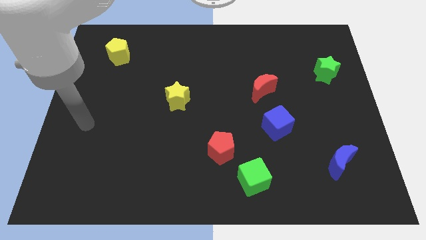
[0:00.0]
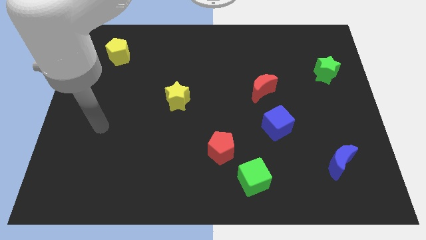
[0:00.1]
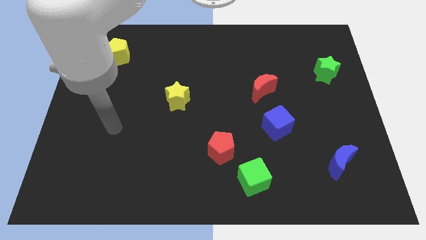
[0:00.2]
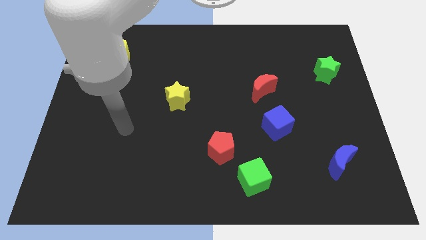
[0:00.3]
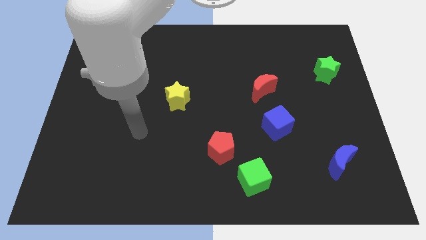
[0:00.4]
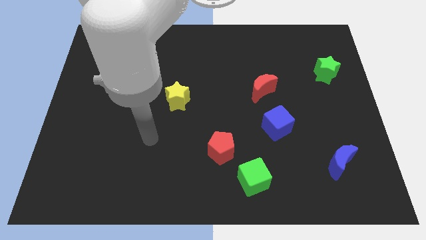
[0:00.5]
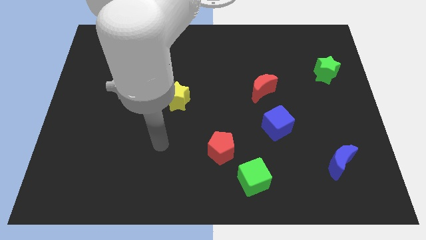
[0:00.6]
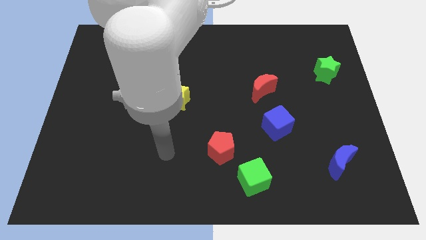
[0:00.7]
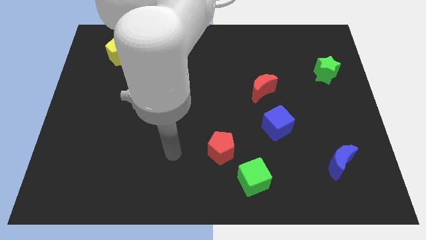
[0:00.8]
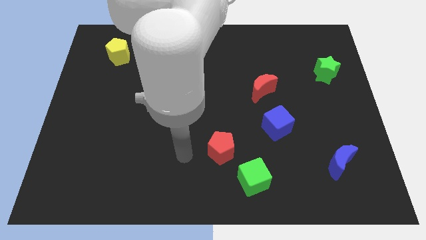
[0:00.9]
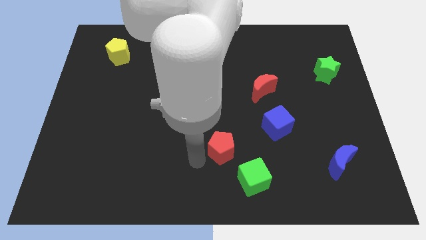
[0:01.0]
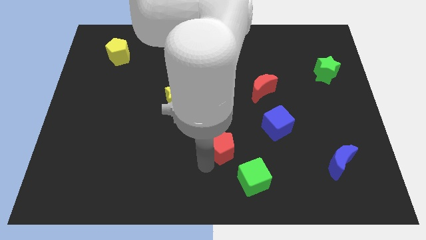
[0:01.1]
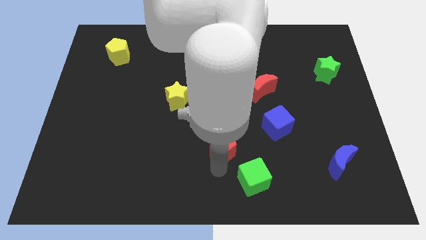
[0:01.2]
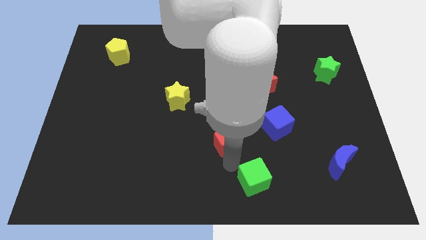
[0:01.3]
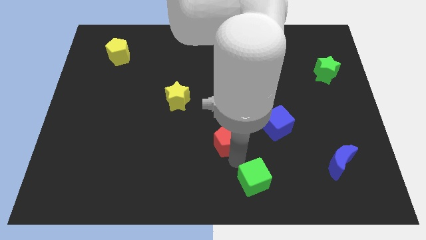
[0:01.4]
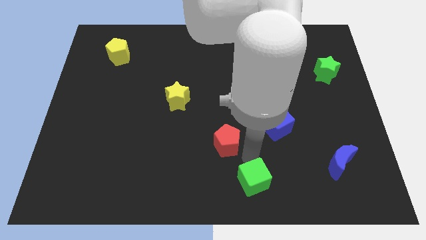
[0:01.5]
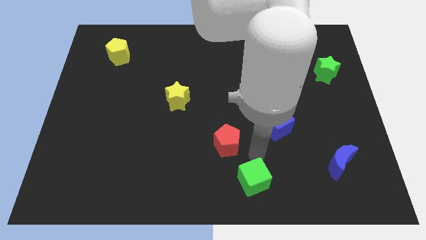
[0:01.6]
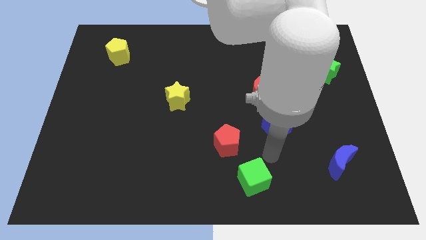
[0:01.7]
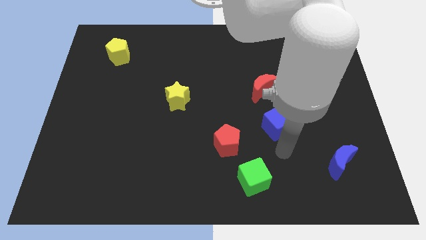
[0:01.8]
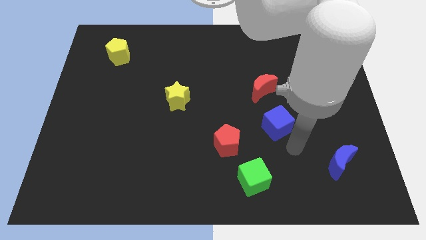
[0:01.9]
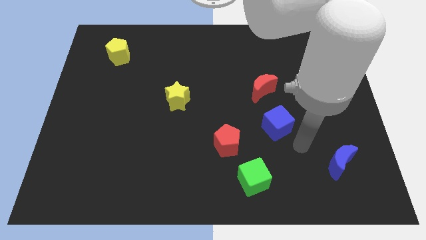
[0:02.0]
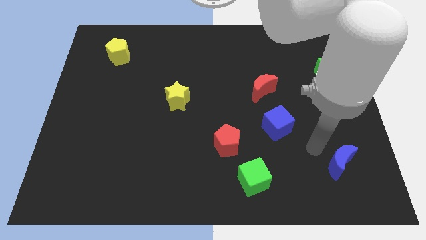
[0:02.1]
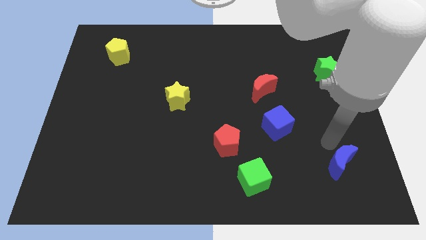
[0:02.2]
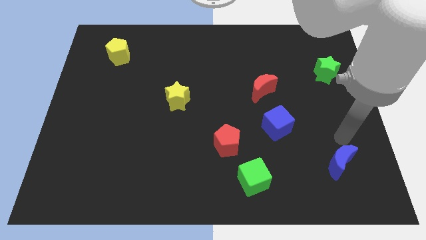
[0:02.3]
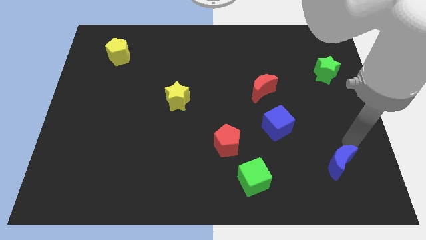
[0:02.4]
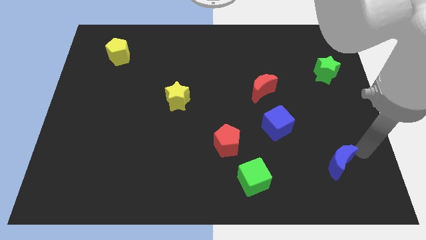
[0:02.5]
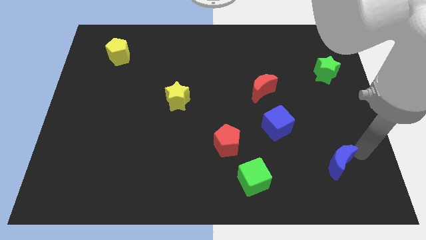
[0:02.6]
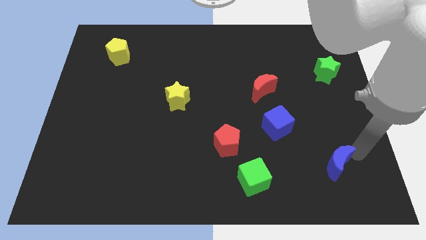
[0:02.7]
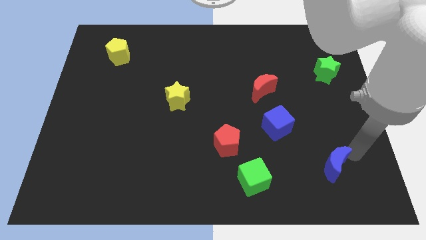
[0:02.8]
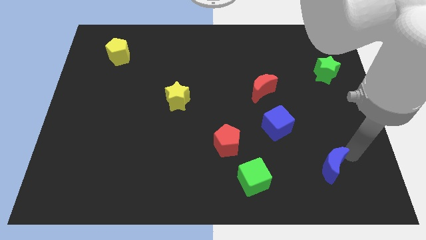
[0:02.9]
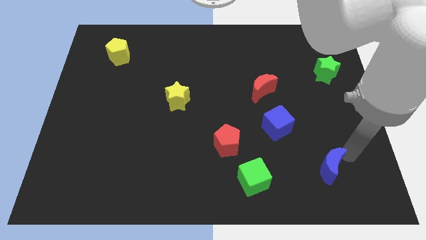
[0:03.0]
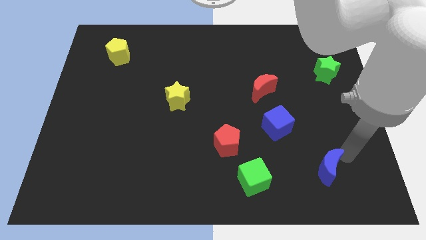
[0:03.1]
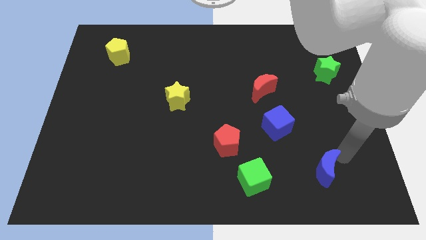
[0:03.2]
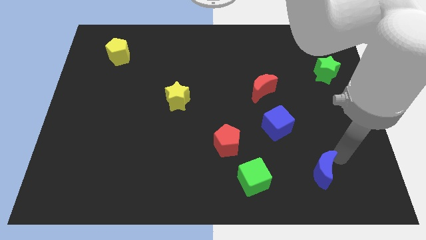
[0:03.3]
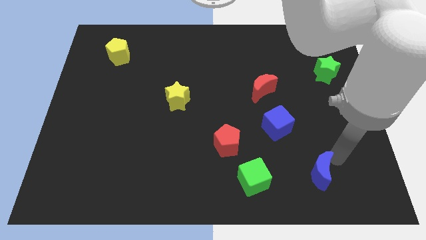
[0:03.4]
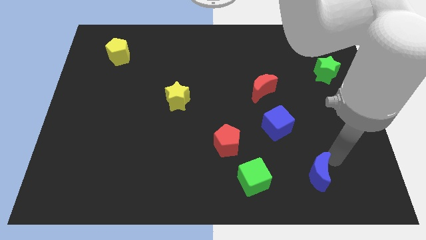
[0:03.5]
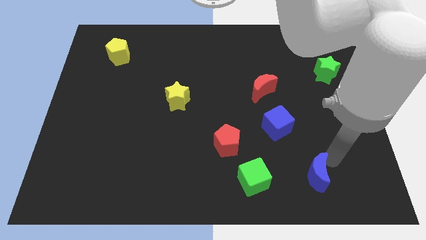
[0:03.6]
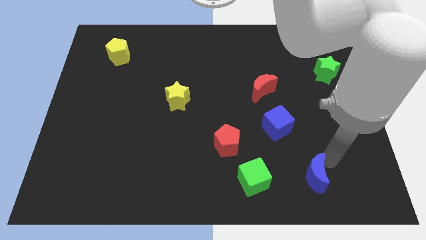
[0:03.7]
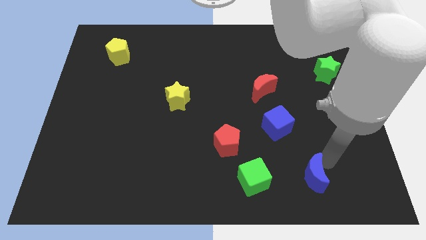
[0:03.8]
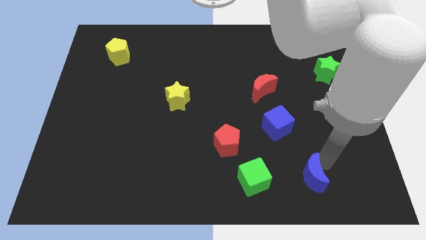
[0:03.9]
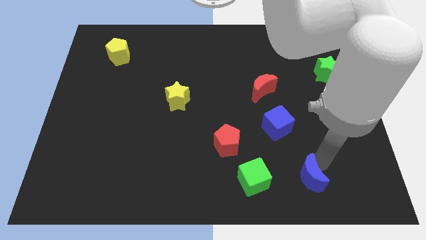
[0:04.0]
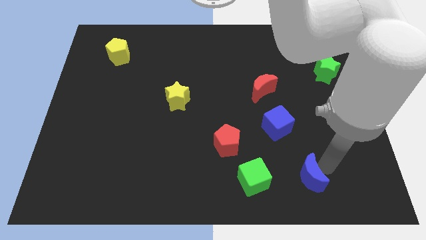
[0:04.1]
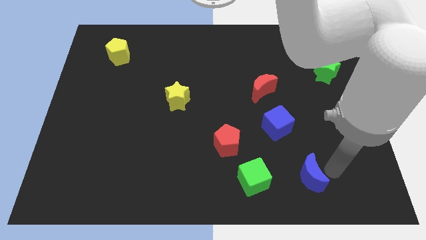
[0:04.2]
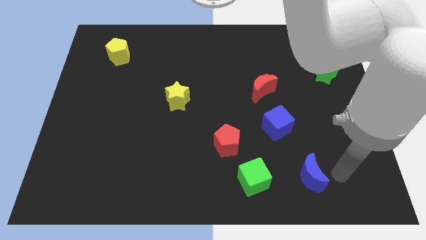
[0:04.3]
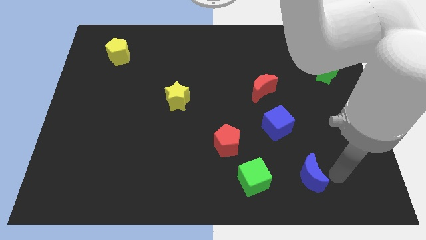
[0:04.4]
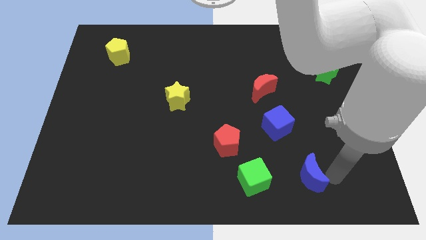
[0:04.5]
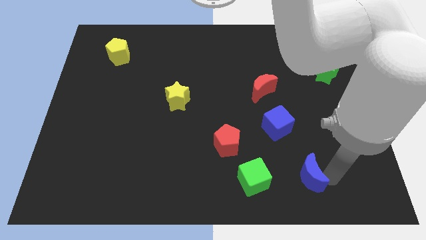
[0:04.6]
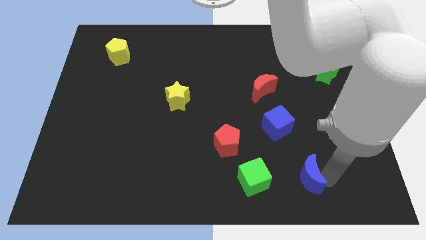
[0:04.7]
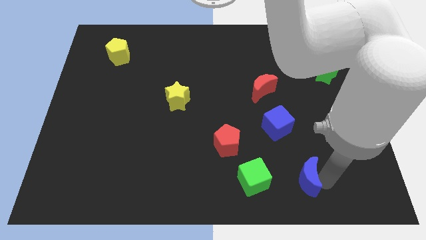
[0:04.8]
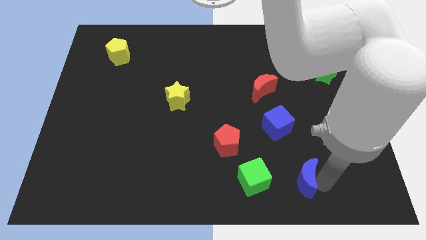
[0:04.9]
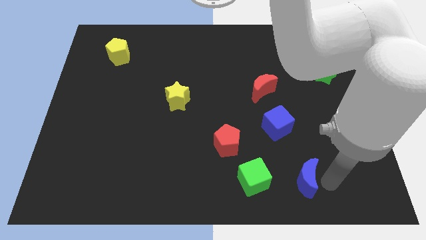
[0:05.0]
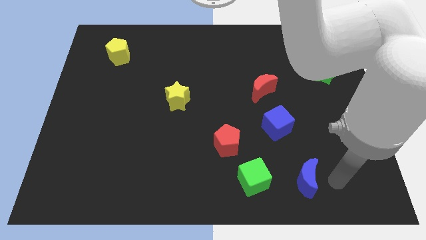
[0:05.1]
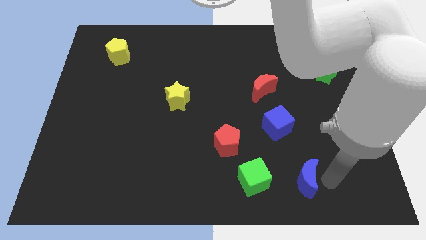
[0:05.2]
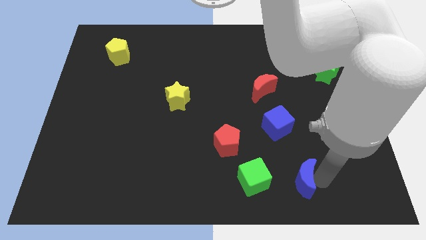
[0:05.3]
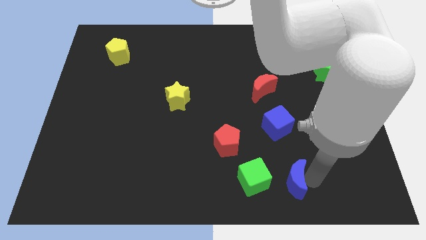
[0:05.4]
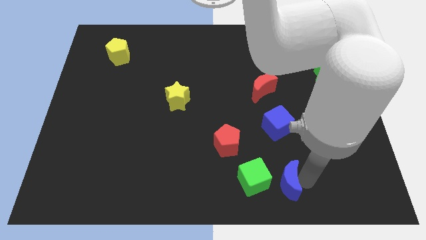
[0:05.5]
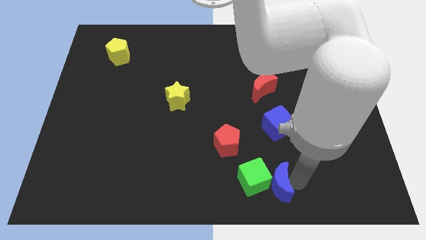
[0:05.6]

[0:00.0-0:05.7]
put the blue moon next to the green cube

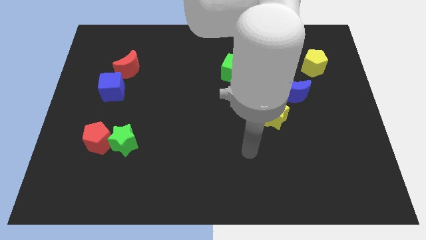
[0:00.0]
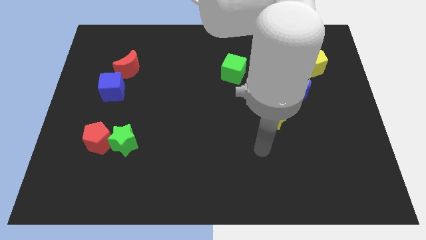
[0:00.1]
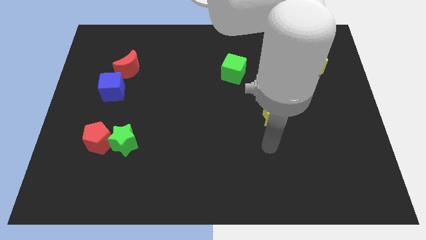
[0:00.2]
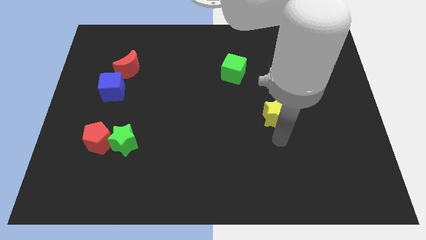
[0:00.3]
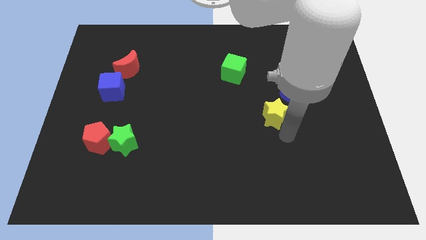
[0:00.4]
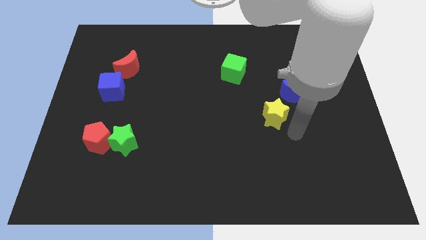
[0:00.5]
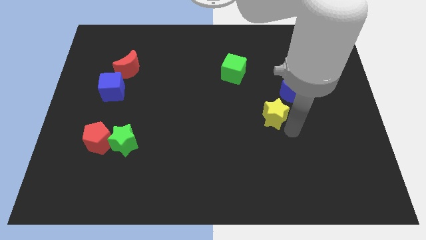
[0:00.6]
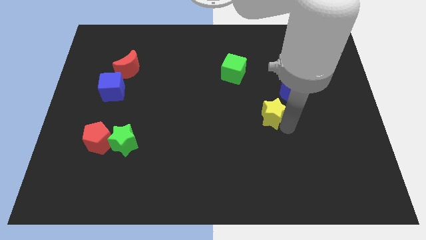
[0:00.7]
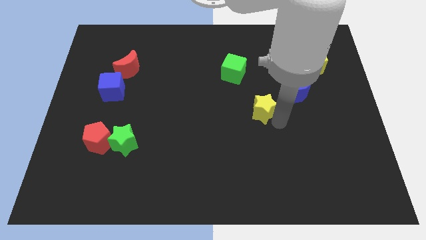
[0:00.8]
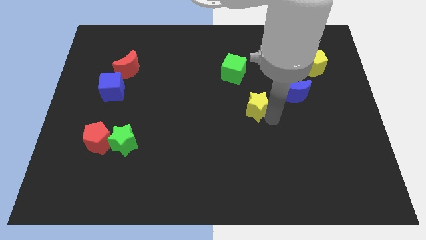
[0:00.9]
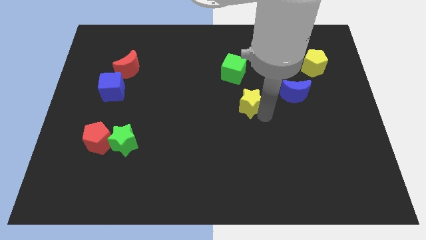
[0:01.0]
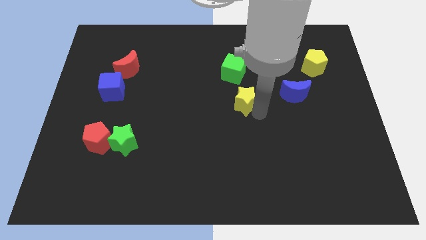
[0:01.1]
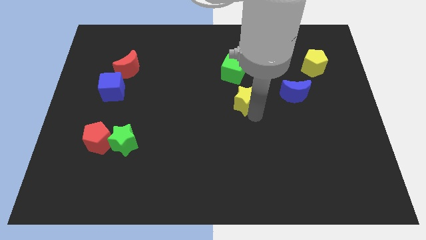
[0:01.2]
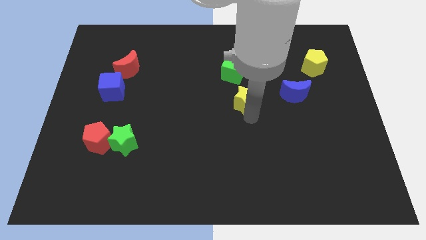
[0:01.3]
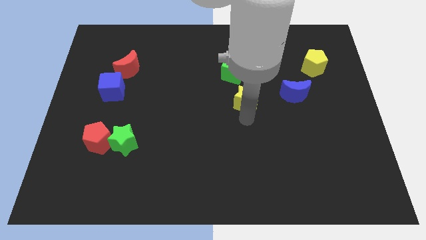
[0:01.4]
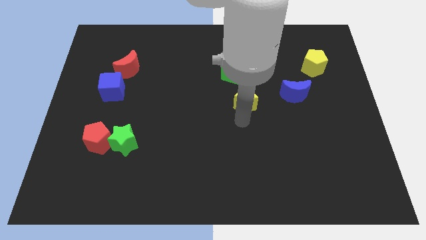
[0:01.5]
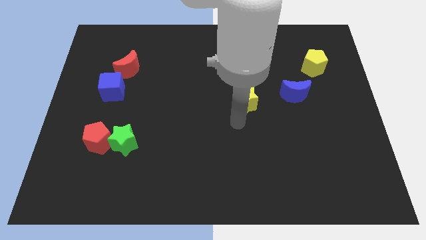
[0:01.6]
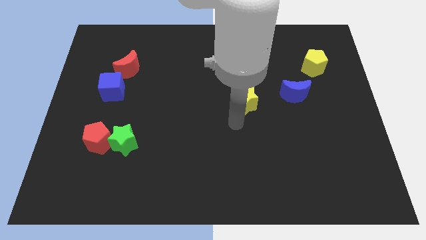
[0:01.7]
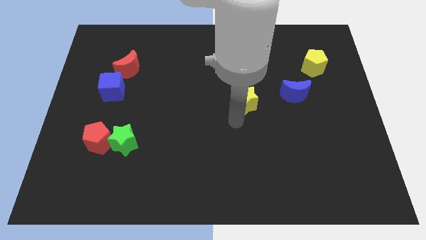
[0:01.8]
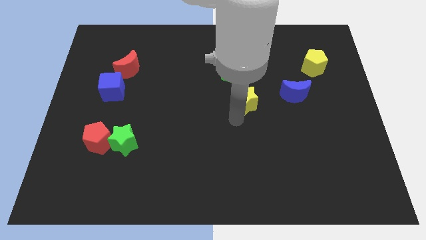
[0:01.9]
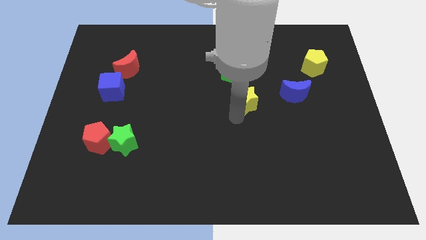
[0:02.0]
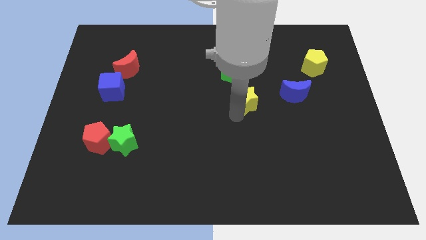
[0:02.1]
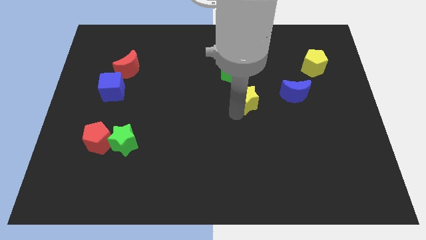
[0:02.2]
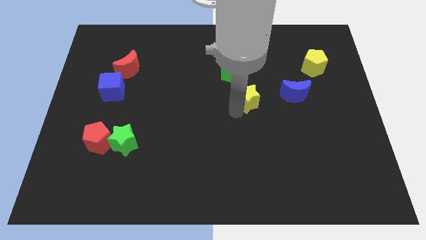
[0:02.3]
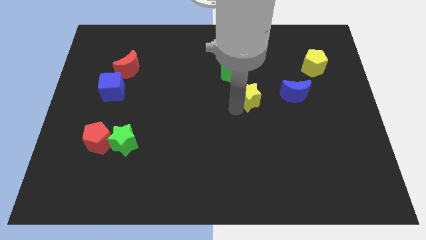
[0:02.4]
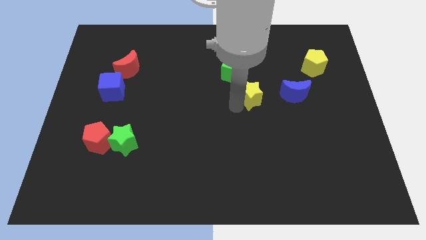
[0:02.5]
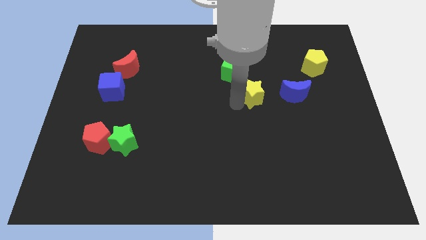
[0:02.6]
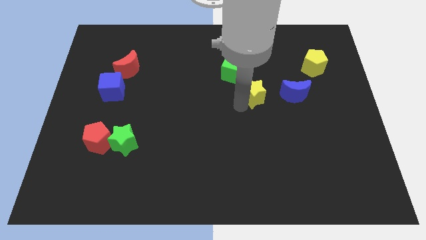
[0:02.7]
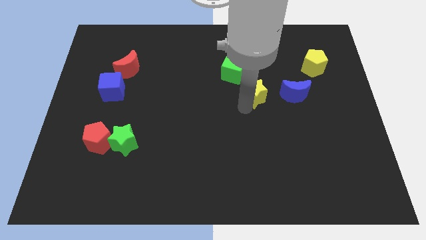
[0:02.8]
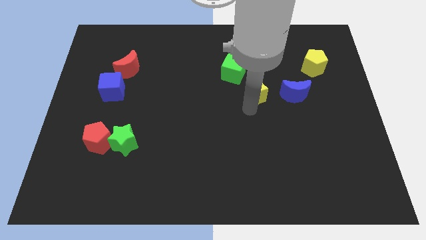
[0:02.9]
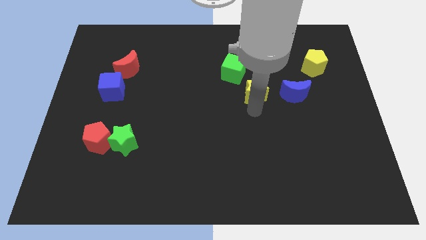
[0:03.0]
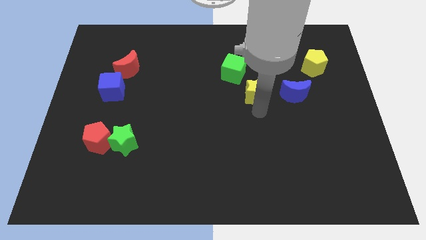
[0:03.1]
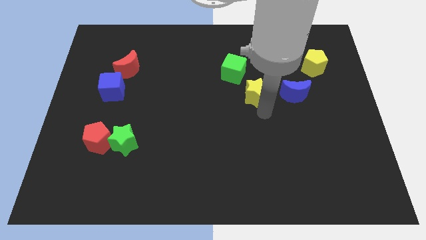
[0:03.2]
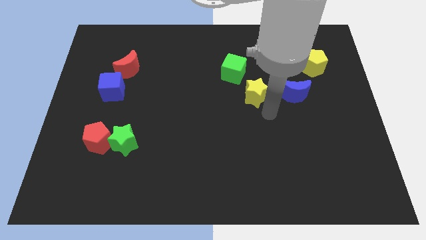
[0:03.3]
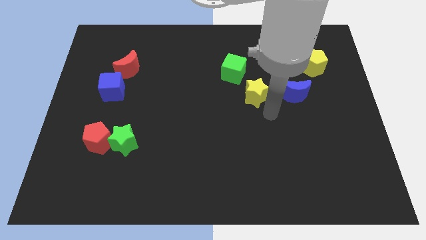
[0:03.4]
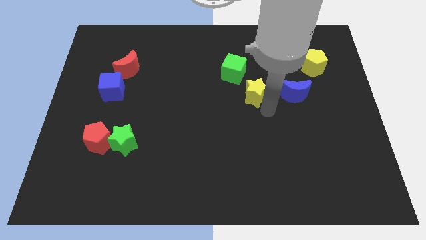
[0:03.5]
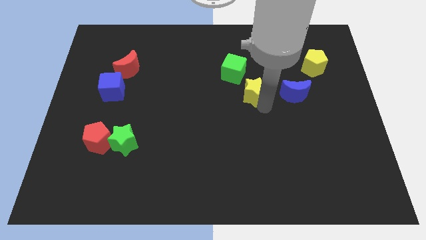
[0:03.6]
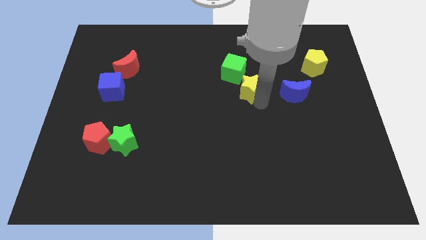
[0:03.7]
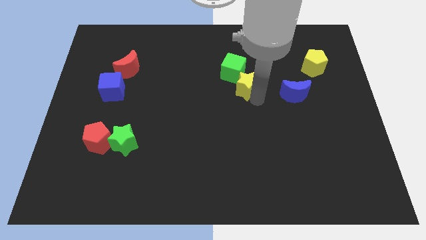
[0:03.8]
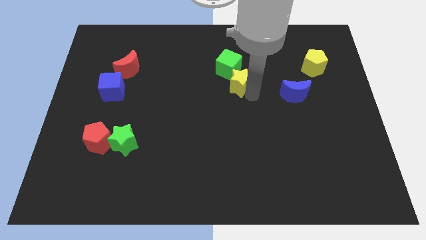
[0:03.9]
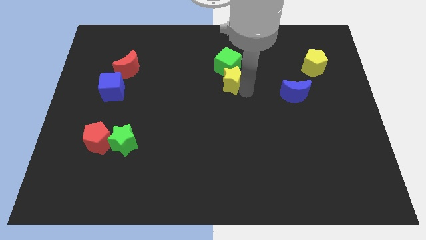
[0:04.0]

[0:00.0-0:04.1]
put the yellow star to the green cube
